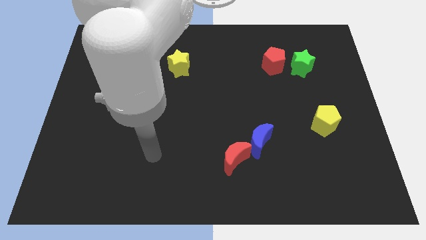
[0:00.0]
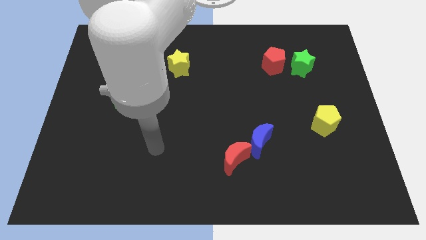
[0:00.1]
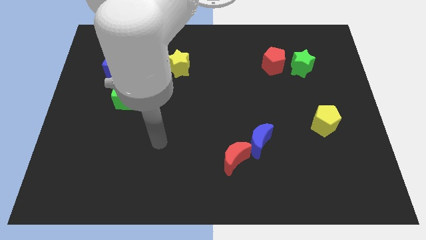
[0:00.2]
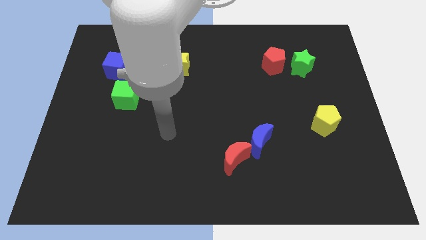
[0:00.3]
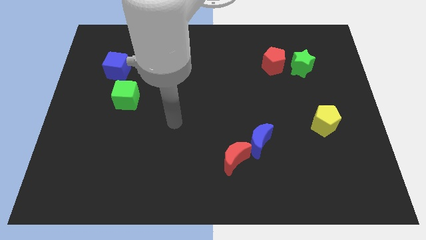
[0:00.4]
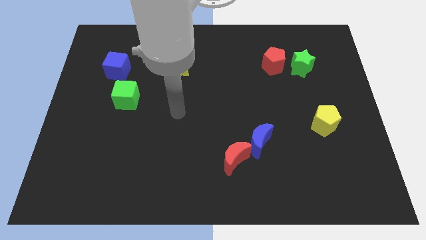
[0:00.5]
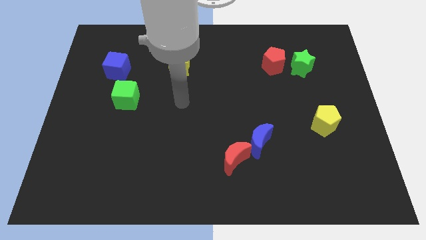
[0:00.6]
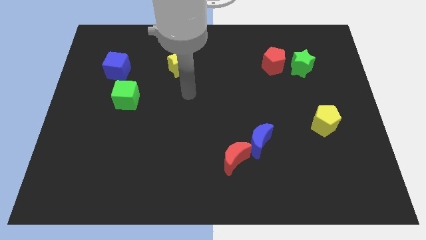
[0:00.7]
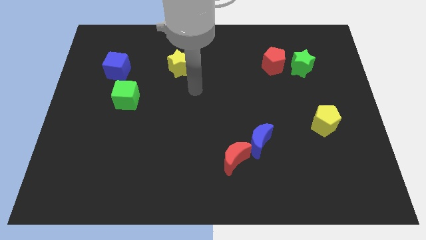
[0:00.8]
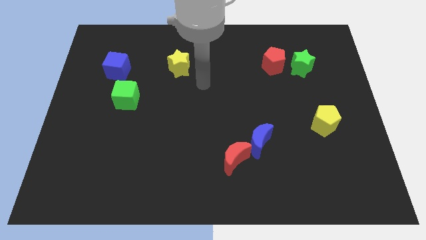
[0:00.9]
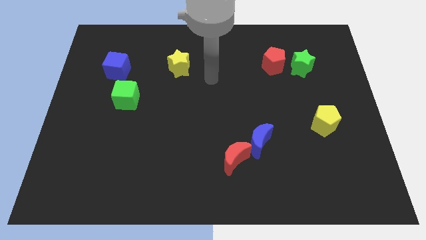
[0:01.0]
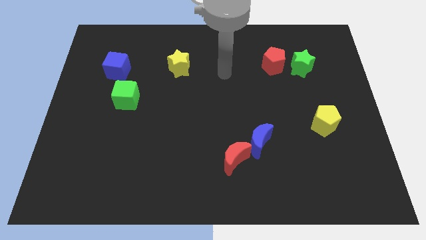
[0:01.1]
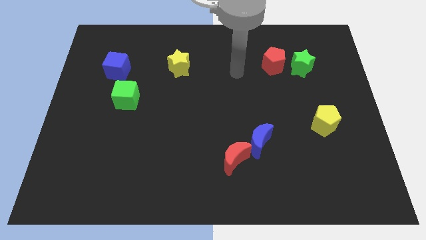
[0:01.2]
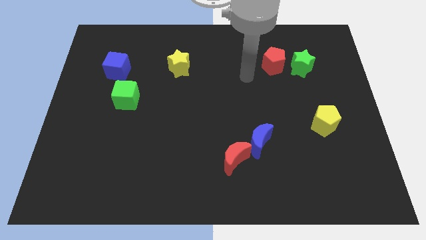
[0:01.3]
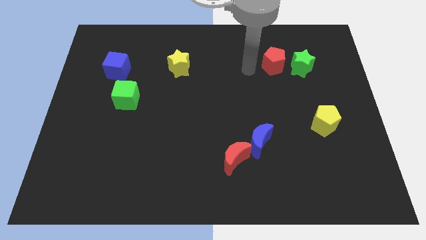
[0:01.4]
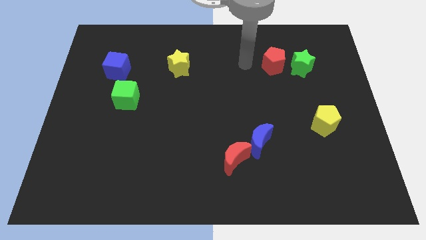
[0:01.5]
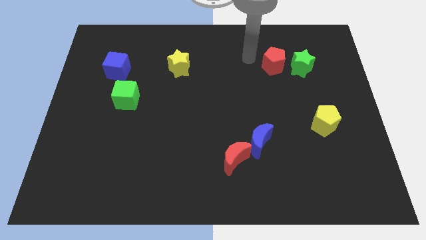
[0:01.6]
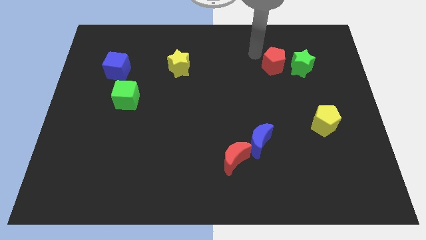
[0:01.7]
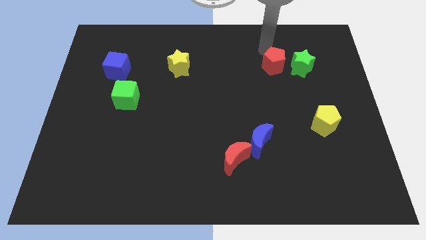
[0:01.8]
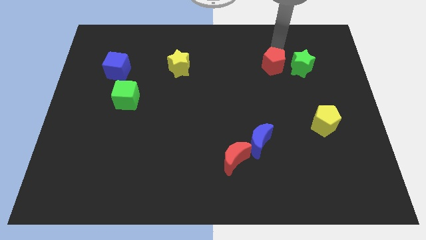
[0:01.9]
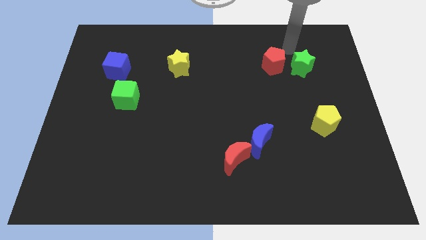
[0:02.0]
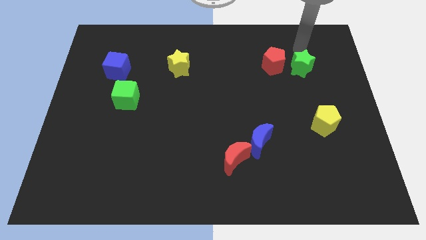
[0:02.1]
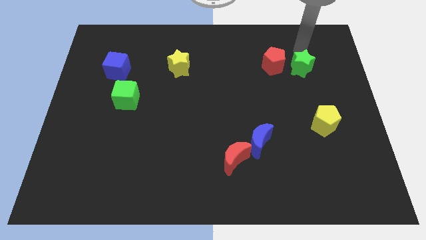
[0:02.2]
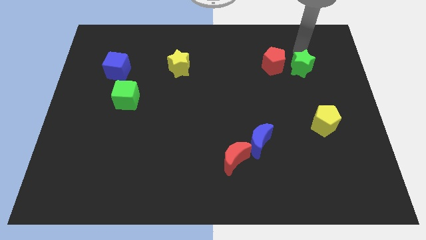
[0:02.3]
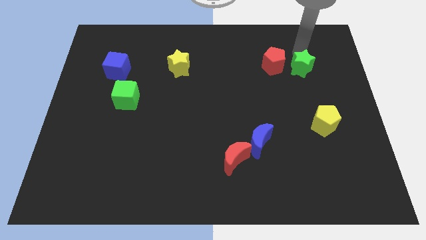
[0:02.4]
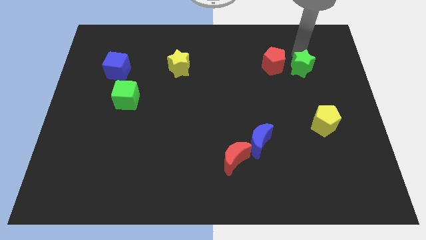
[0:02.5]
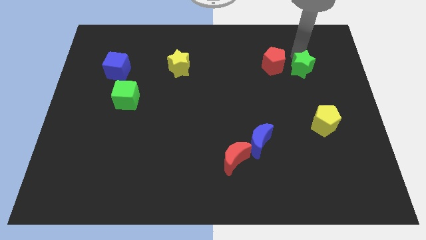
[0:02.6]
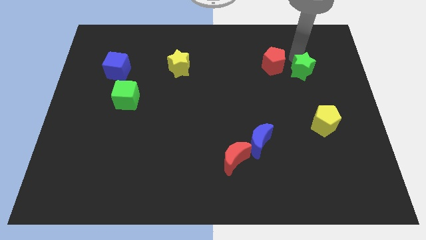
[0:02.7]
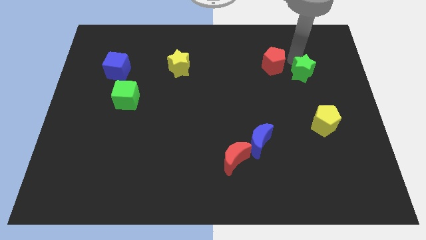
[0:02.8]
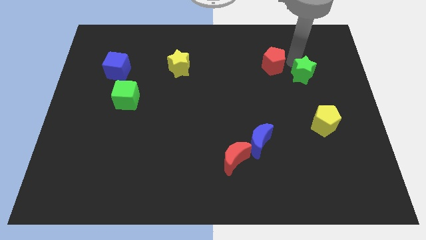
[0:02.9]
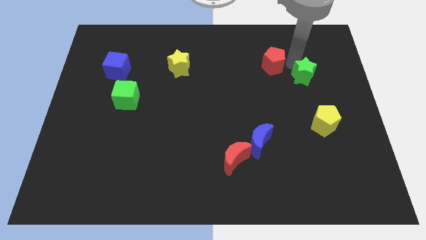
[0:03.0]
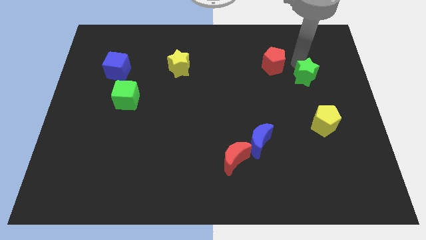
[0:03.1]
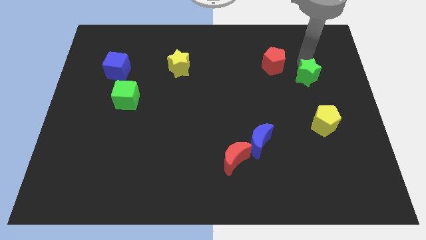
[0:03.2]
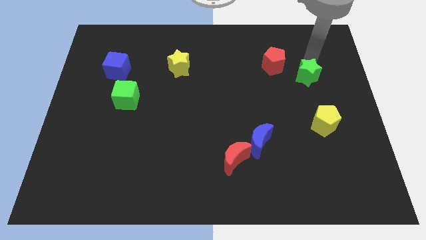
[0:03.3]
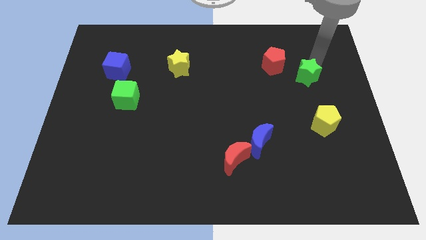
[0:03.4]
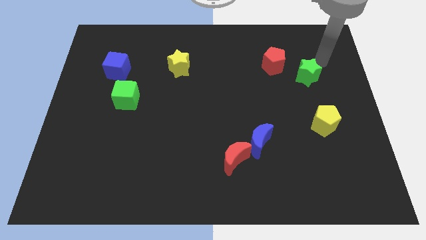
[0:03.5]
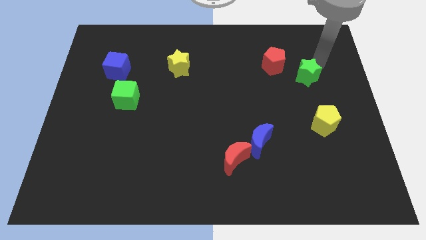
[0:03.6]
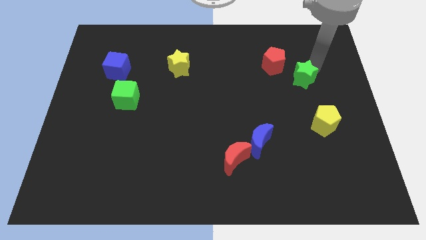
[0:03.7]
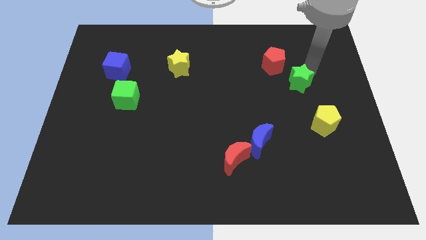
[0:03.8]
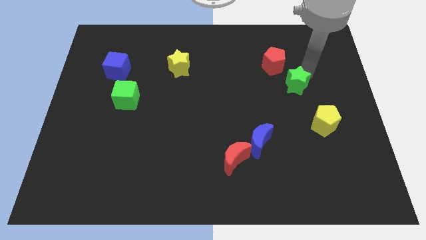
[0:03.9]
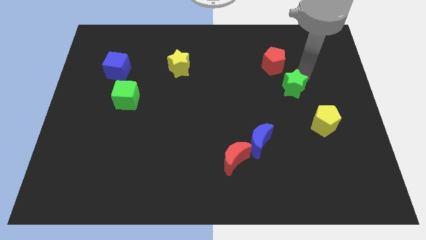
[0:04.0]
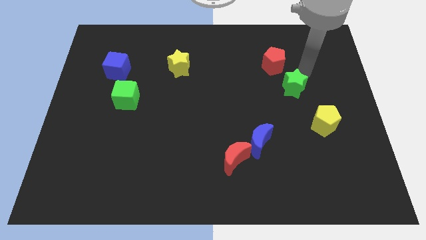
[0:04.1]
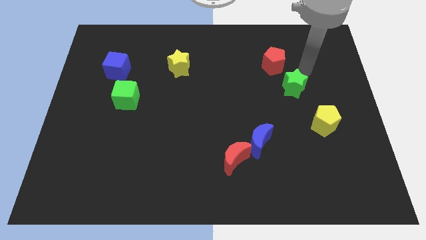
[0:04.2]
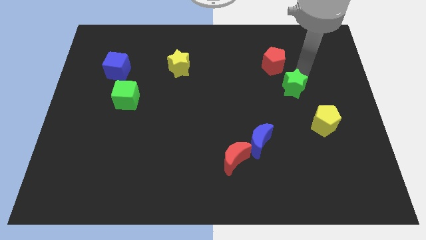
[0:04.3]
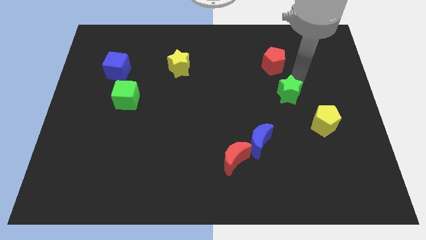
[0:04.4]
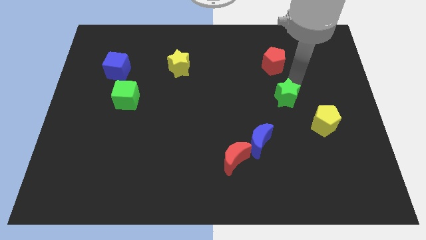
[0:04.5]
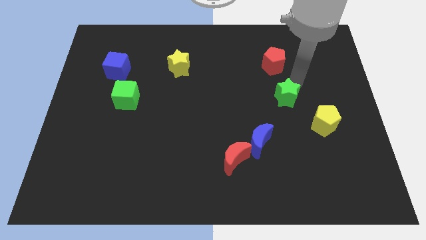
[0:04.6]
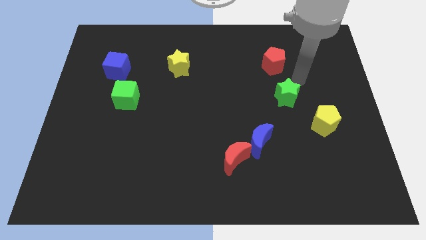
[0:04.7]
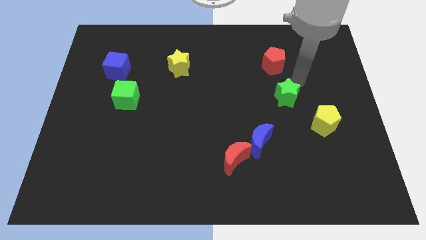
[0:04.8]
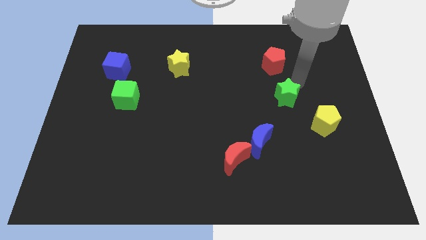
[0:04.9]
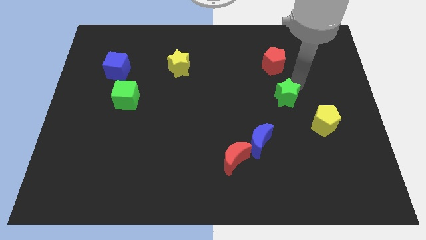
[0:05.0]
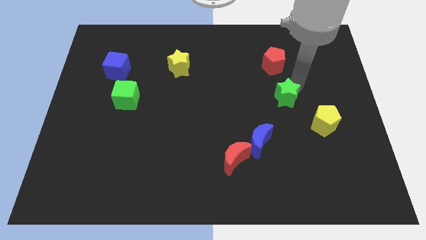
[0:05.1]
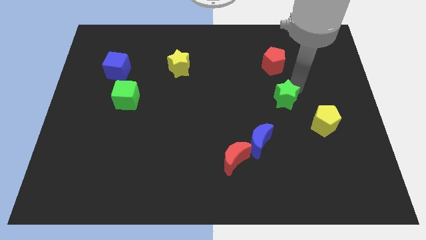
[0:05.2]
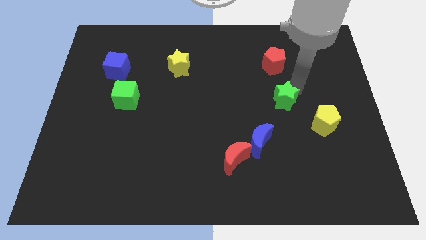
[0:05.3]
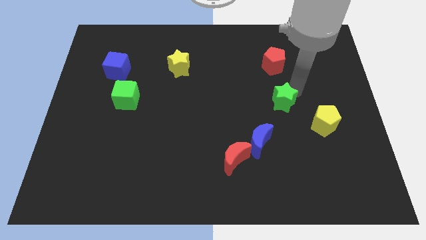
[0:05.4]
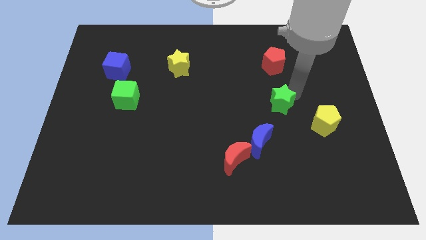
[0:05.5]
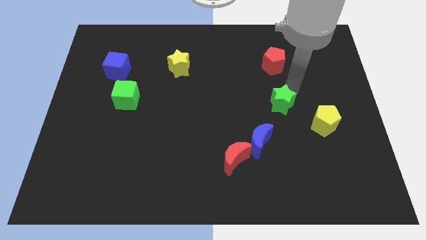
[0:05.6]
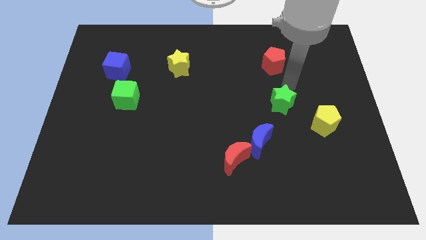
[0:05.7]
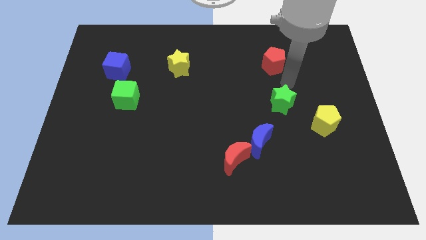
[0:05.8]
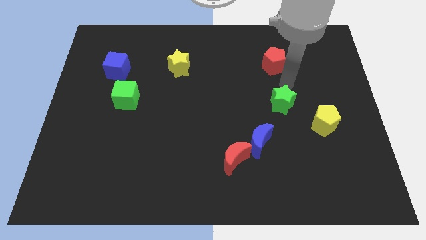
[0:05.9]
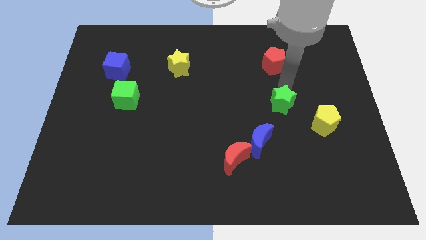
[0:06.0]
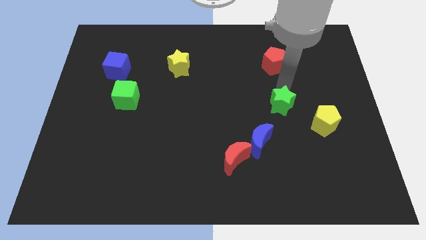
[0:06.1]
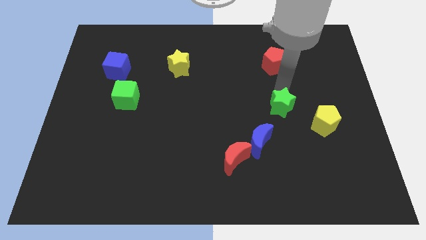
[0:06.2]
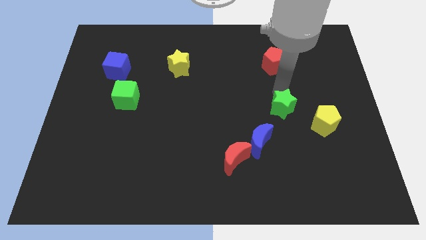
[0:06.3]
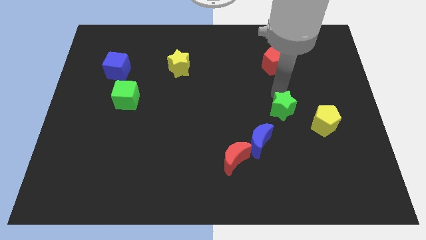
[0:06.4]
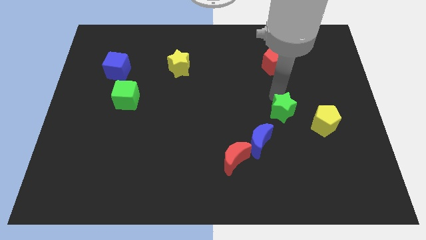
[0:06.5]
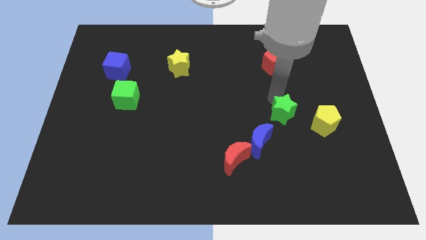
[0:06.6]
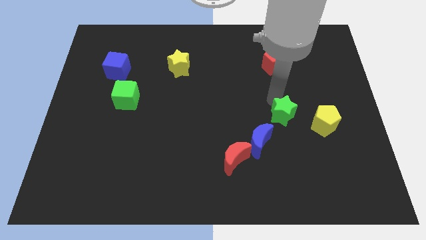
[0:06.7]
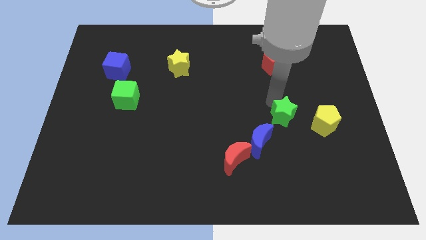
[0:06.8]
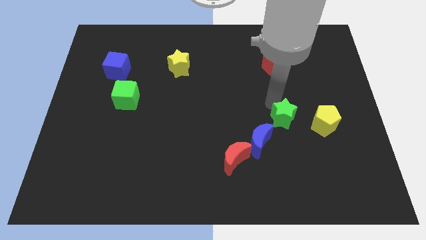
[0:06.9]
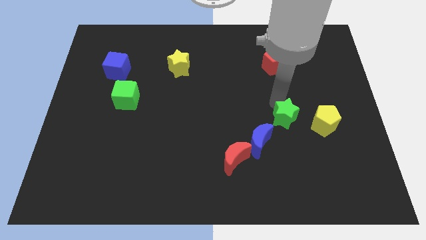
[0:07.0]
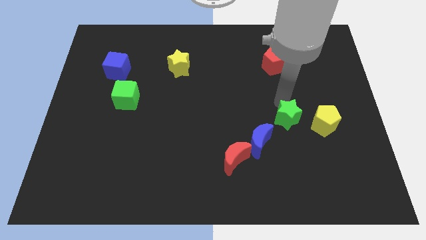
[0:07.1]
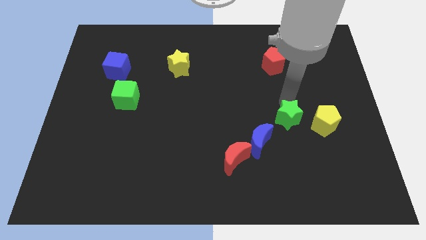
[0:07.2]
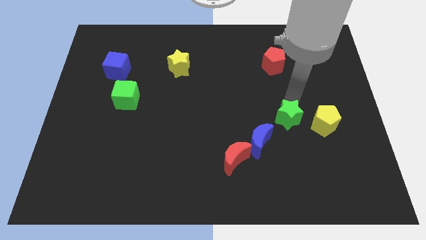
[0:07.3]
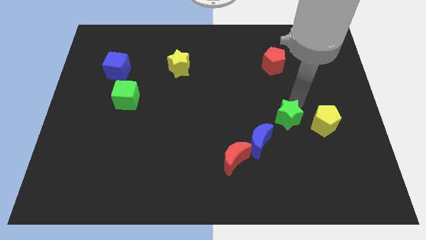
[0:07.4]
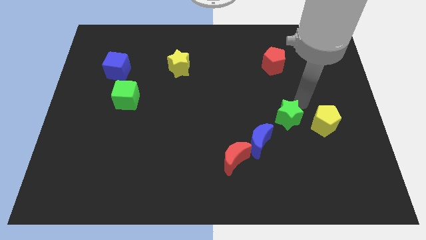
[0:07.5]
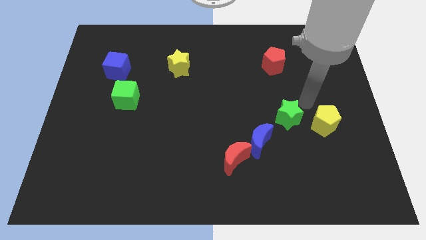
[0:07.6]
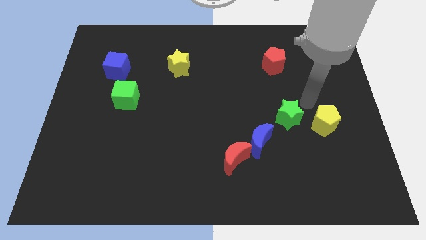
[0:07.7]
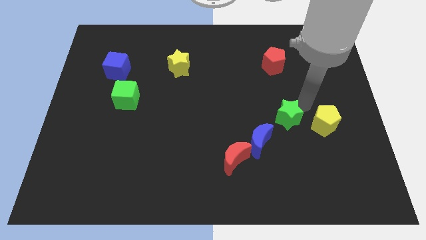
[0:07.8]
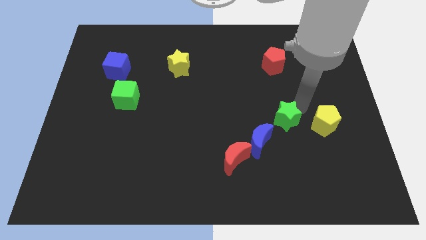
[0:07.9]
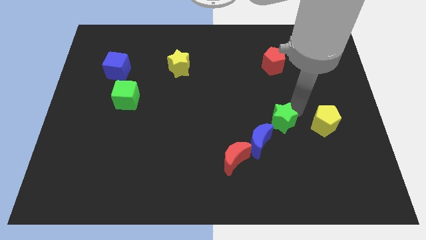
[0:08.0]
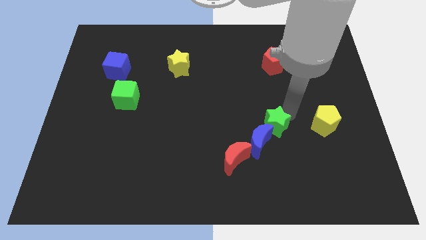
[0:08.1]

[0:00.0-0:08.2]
put the green star next to the blue moon
